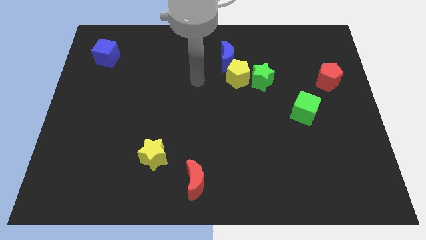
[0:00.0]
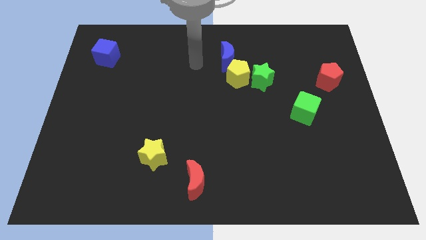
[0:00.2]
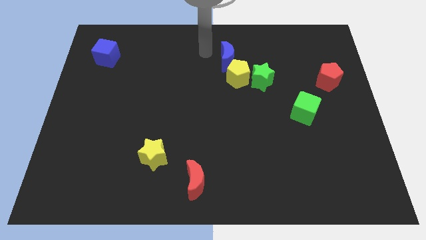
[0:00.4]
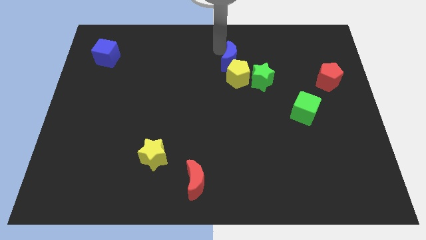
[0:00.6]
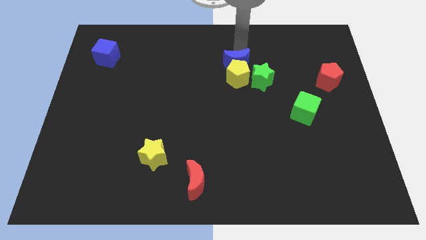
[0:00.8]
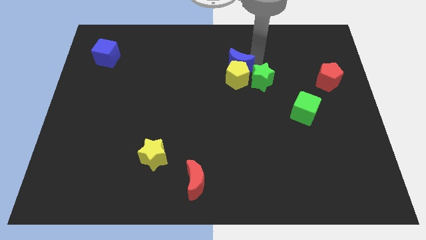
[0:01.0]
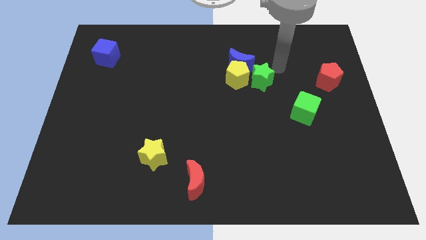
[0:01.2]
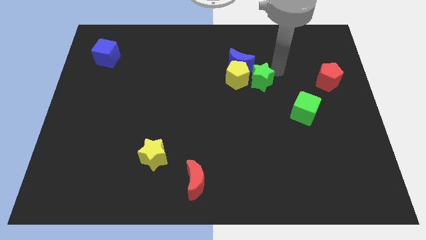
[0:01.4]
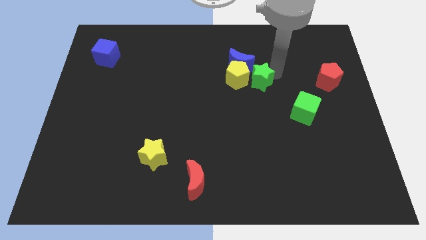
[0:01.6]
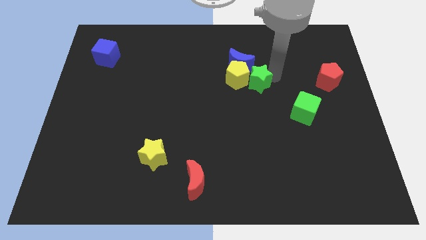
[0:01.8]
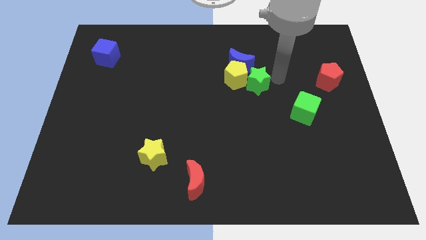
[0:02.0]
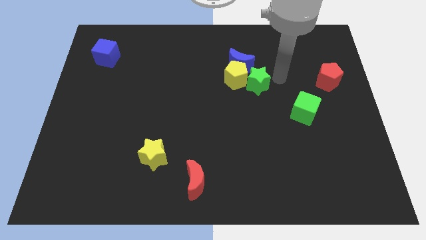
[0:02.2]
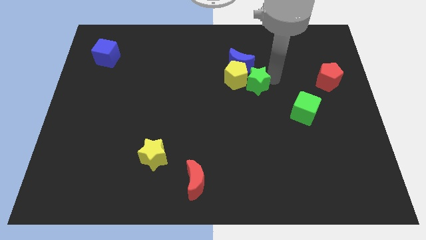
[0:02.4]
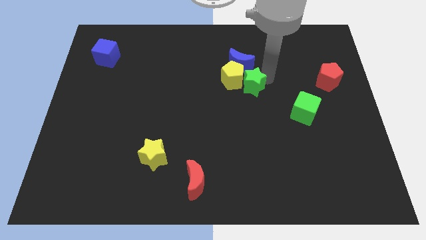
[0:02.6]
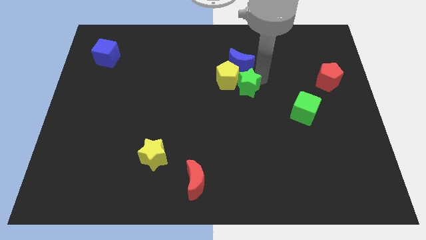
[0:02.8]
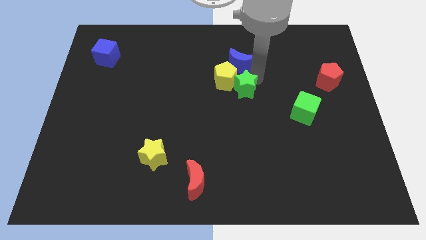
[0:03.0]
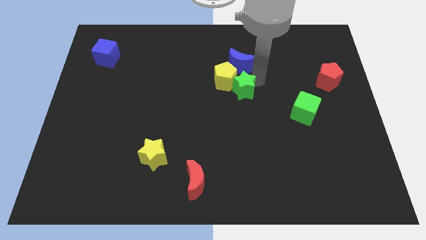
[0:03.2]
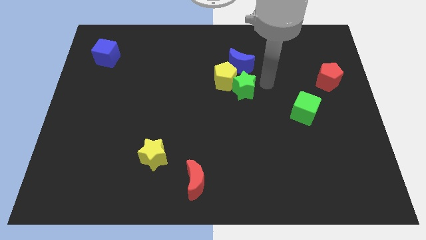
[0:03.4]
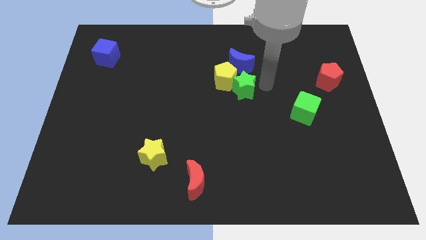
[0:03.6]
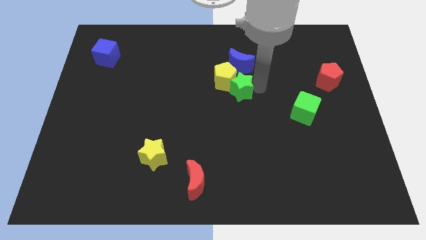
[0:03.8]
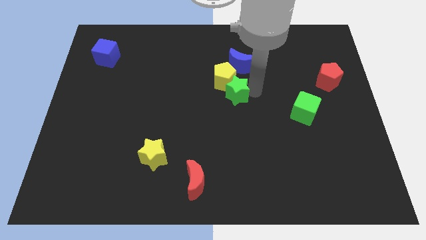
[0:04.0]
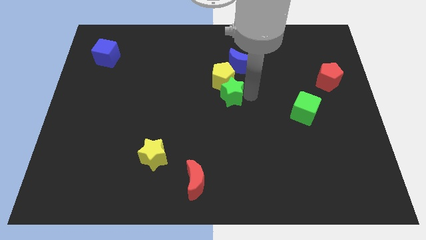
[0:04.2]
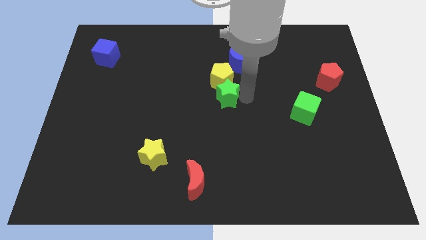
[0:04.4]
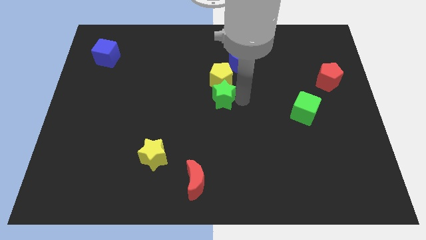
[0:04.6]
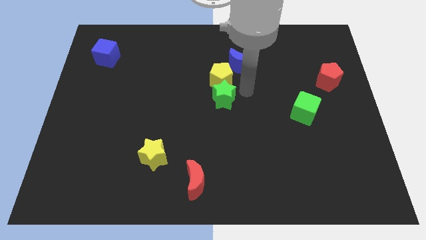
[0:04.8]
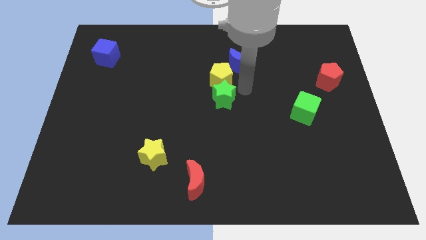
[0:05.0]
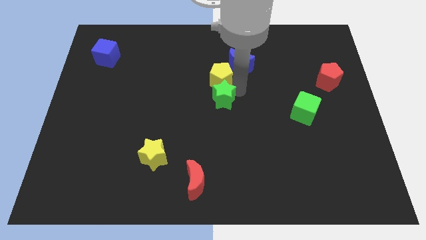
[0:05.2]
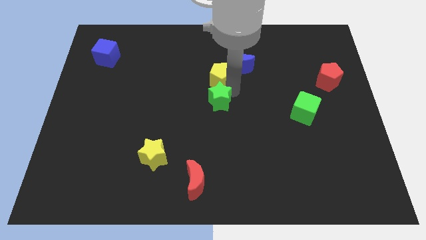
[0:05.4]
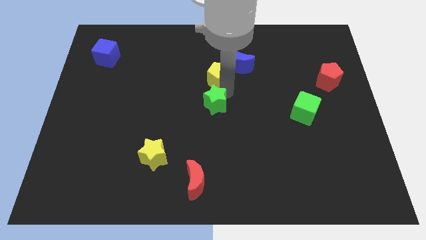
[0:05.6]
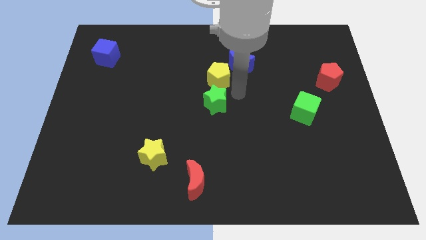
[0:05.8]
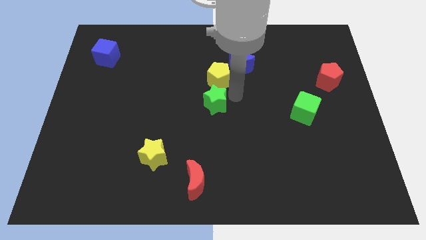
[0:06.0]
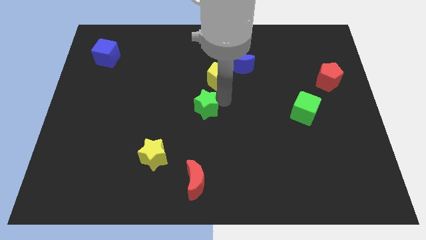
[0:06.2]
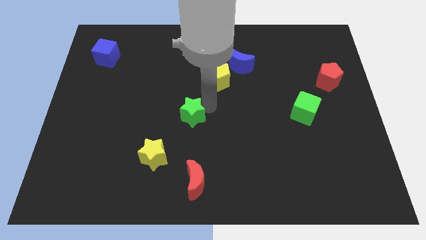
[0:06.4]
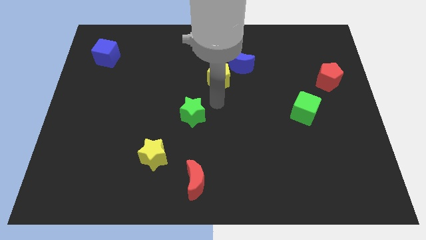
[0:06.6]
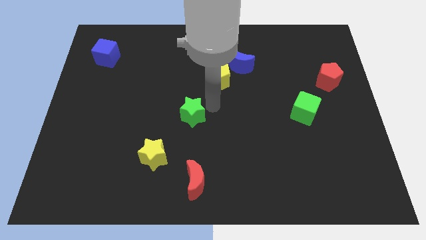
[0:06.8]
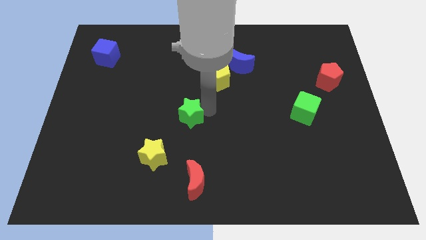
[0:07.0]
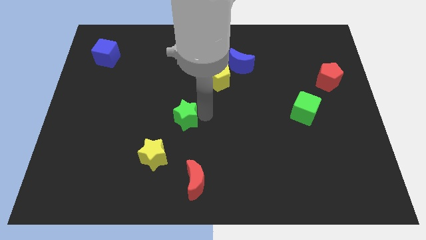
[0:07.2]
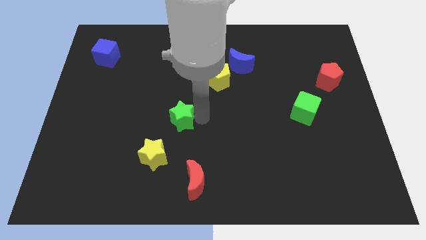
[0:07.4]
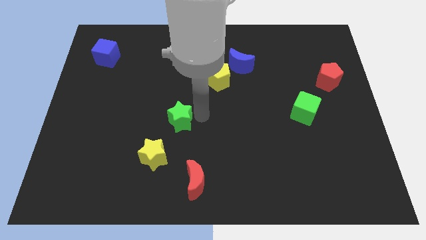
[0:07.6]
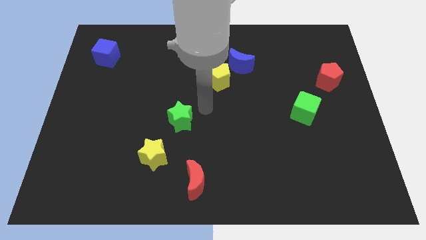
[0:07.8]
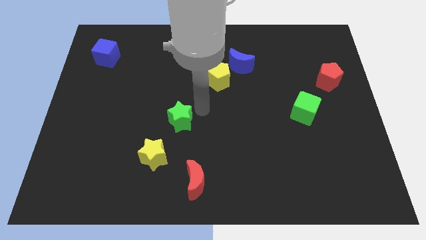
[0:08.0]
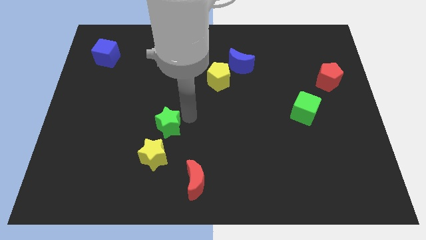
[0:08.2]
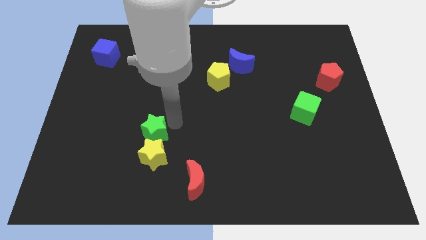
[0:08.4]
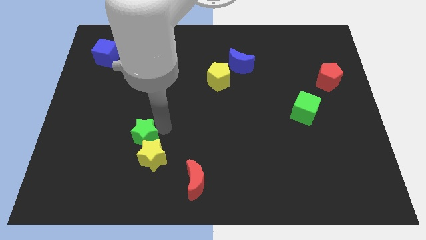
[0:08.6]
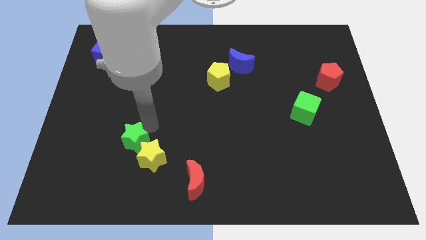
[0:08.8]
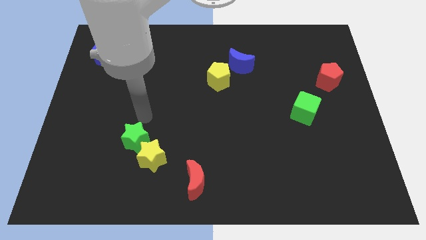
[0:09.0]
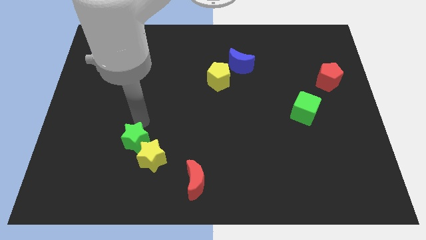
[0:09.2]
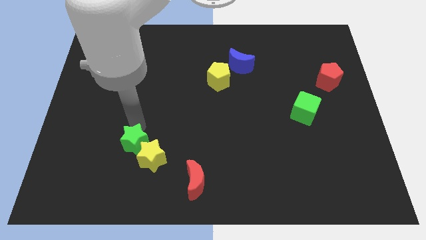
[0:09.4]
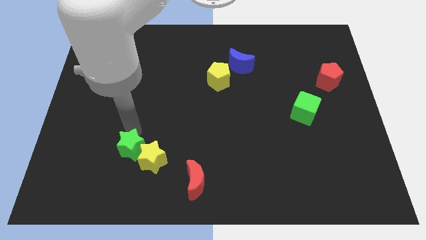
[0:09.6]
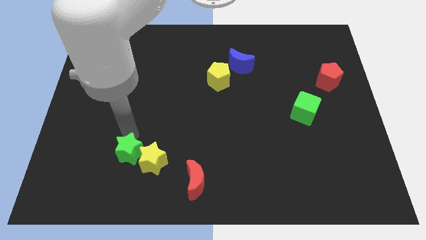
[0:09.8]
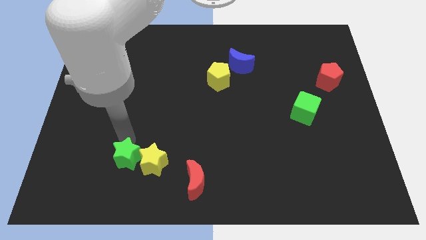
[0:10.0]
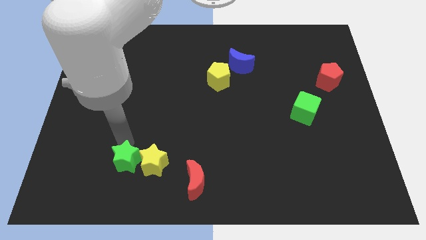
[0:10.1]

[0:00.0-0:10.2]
put the green star diagonally down and to the left of the yellow star

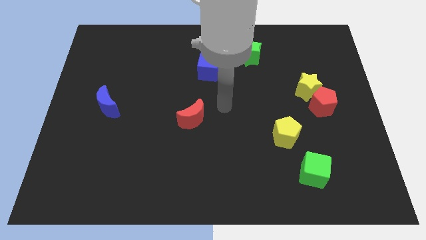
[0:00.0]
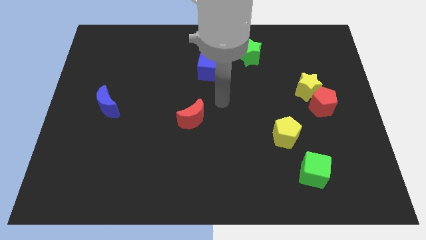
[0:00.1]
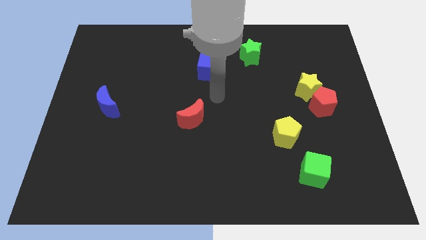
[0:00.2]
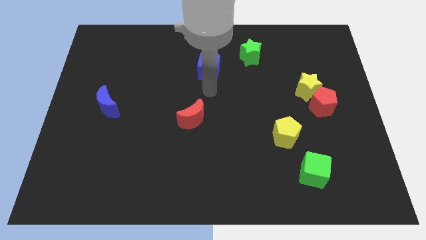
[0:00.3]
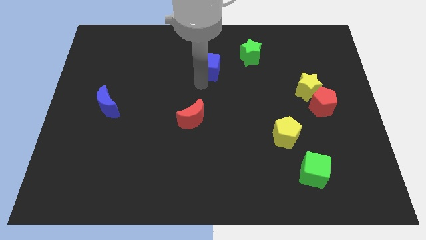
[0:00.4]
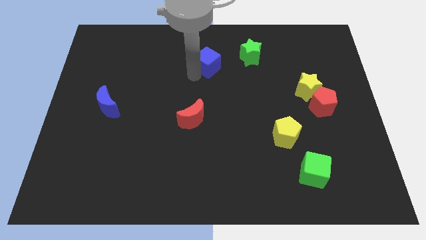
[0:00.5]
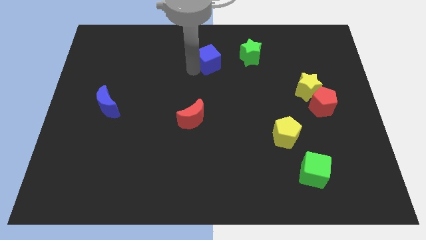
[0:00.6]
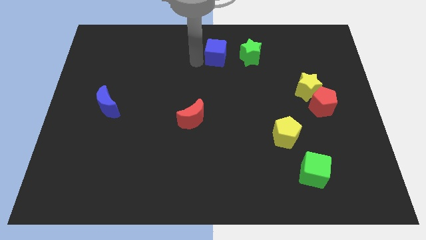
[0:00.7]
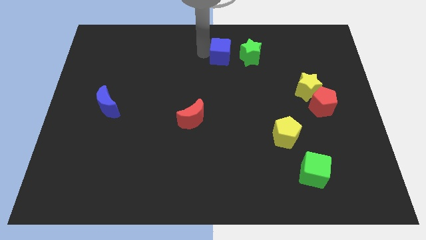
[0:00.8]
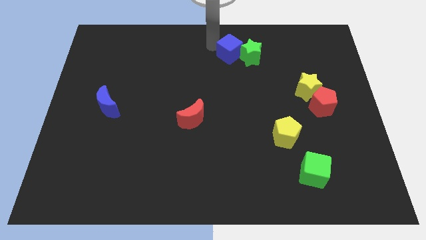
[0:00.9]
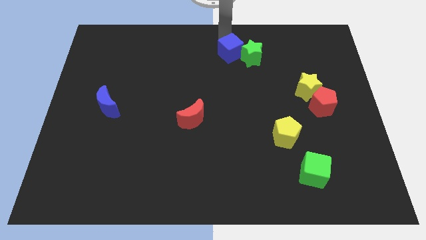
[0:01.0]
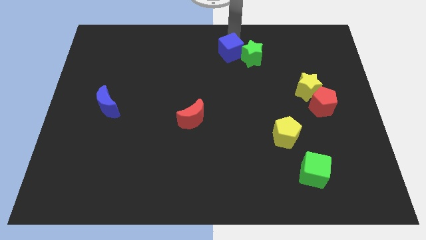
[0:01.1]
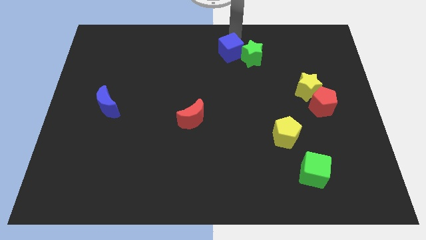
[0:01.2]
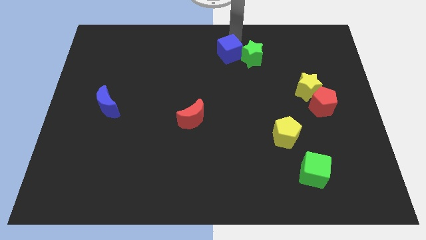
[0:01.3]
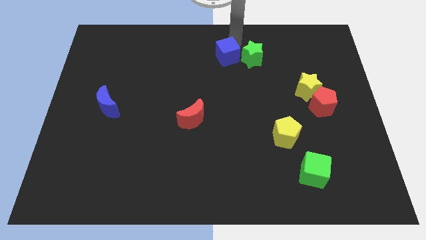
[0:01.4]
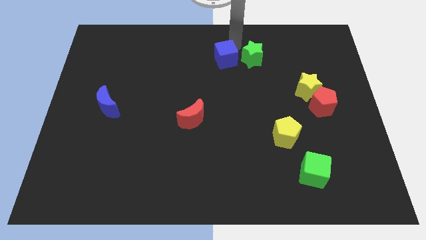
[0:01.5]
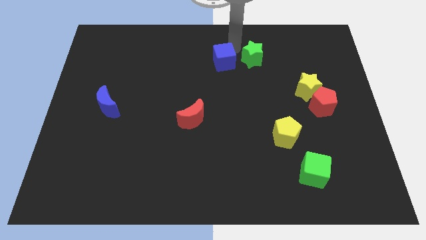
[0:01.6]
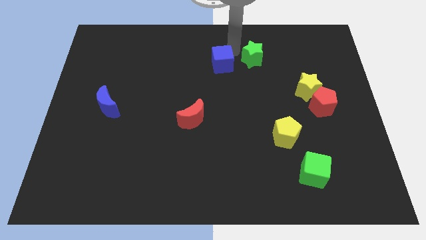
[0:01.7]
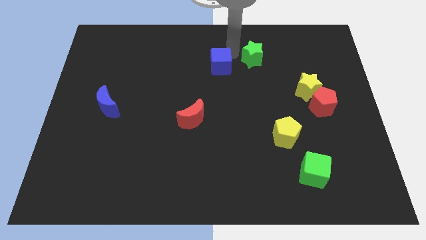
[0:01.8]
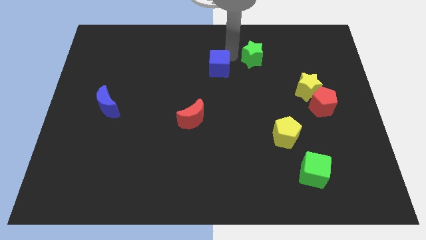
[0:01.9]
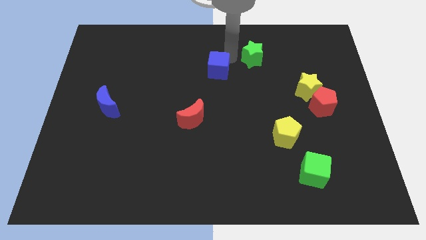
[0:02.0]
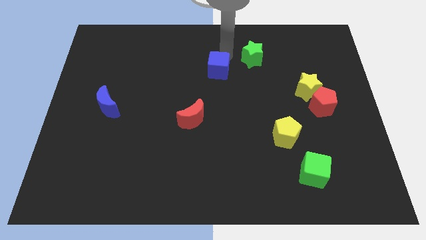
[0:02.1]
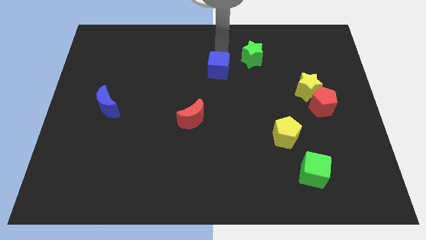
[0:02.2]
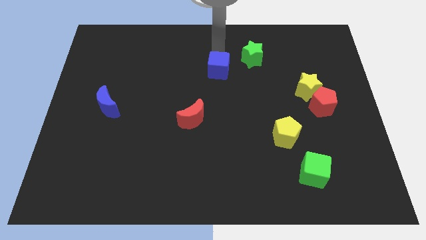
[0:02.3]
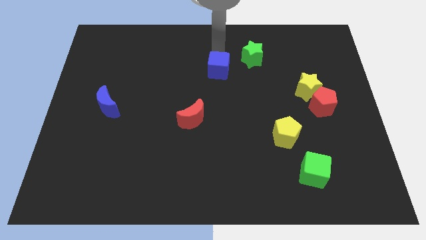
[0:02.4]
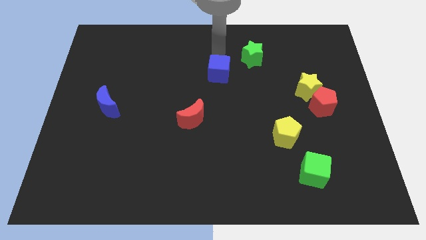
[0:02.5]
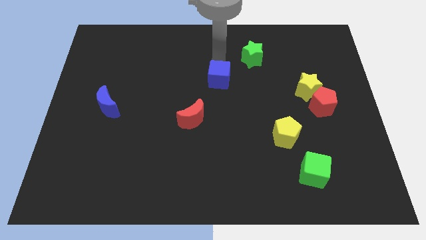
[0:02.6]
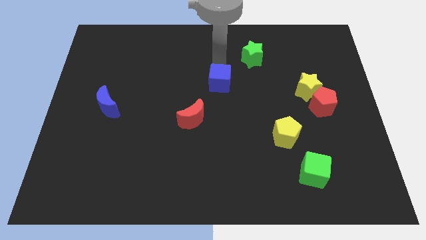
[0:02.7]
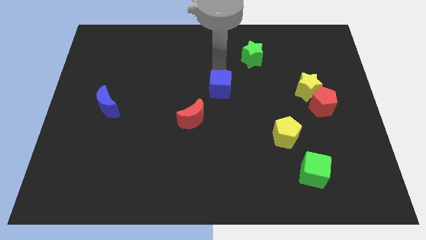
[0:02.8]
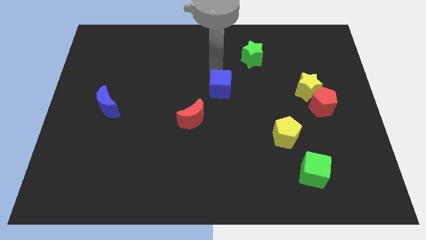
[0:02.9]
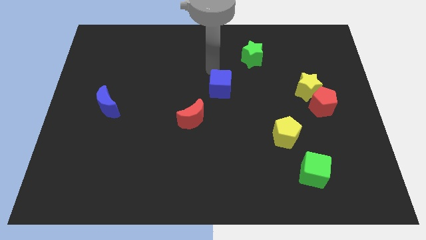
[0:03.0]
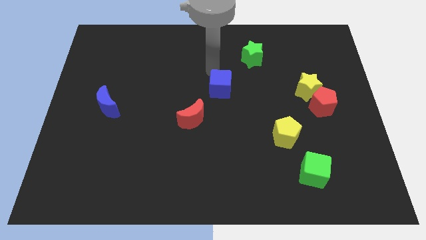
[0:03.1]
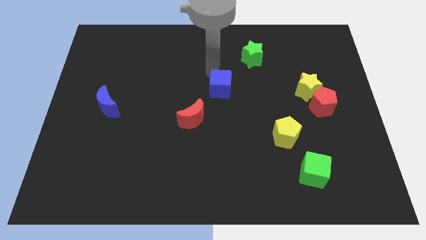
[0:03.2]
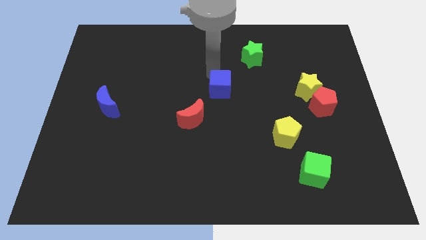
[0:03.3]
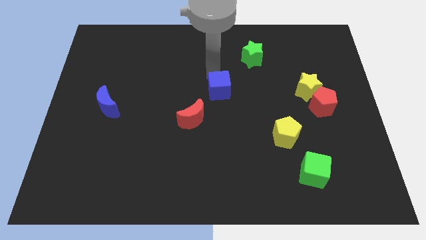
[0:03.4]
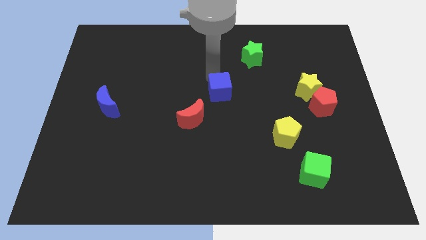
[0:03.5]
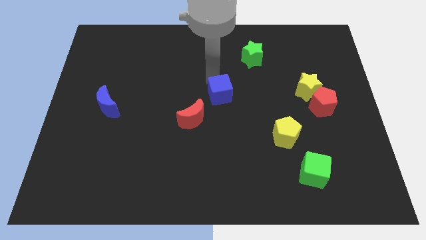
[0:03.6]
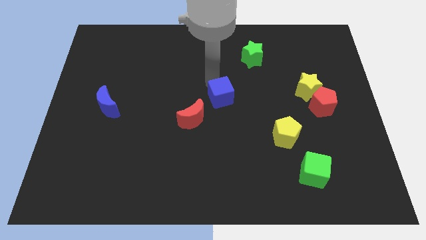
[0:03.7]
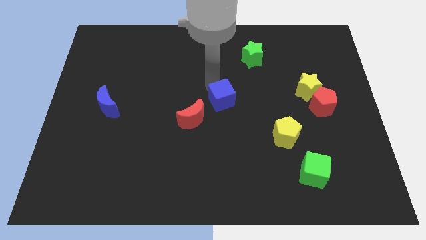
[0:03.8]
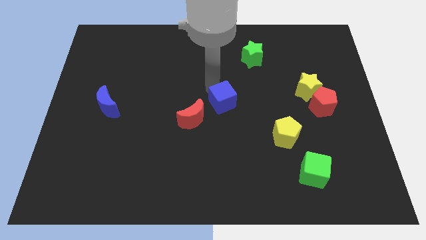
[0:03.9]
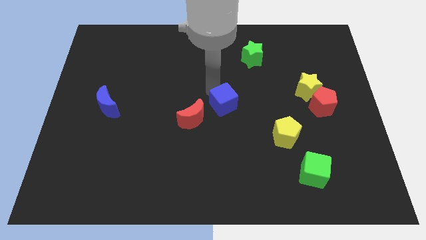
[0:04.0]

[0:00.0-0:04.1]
push the blue cube to the right side of the red moon
